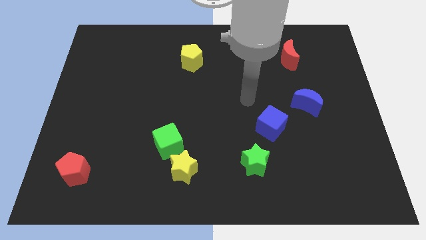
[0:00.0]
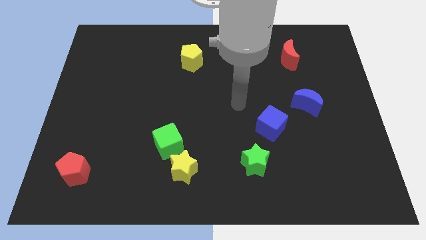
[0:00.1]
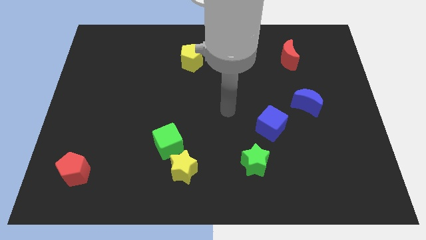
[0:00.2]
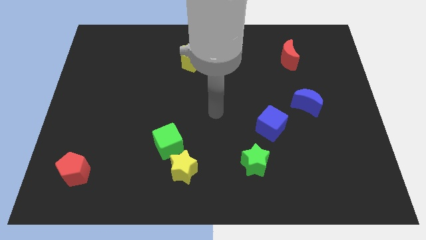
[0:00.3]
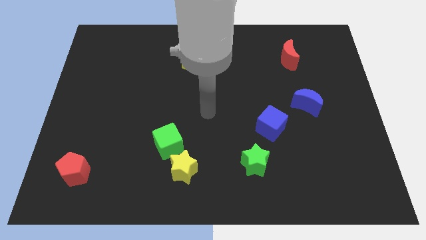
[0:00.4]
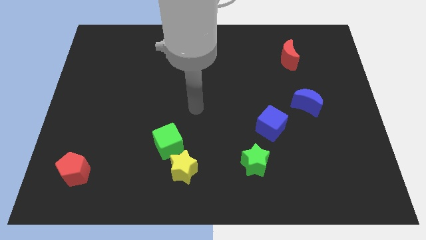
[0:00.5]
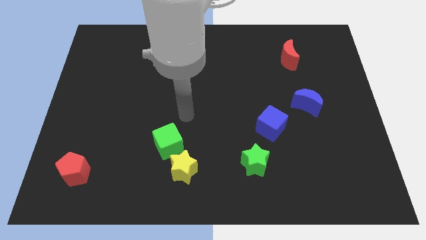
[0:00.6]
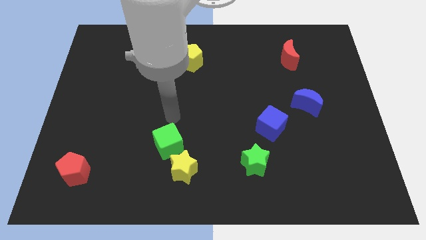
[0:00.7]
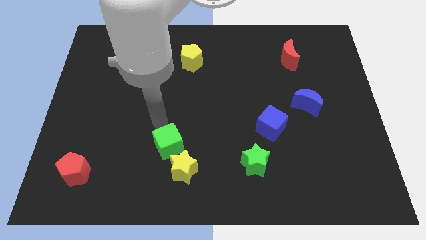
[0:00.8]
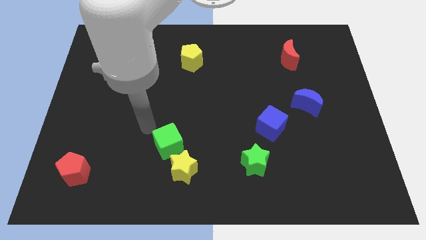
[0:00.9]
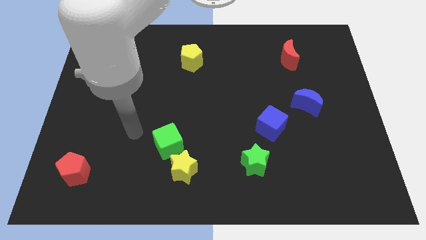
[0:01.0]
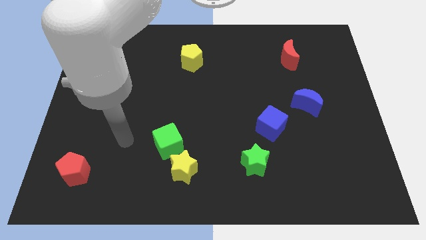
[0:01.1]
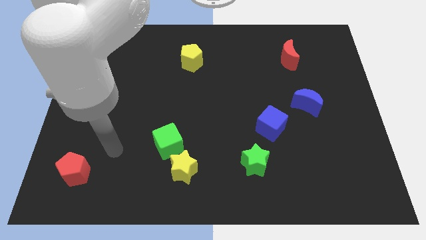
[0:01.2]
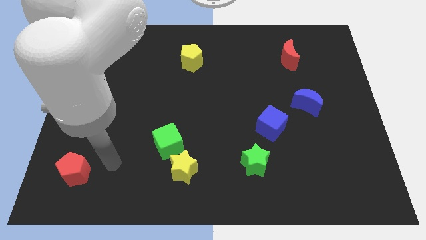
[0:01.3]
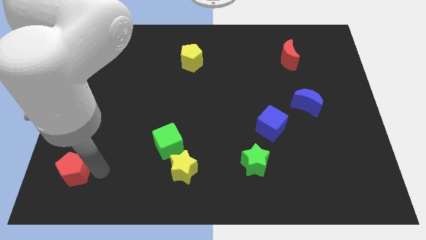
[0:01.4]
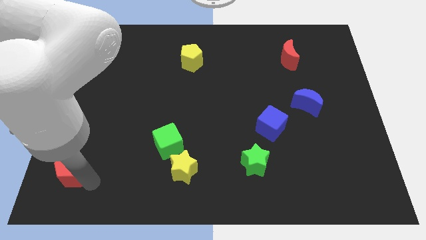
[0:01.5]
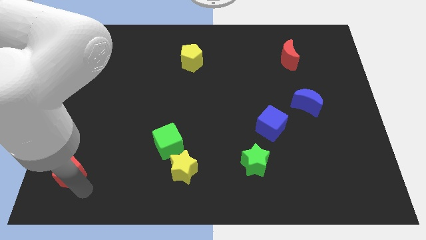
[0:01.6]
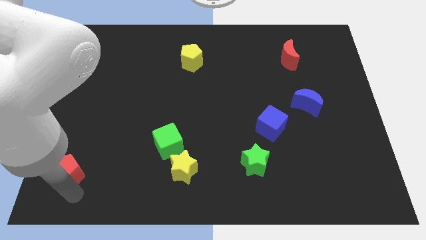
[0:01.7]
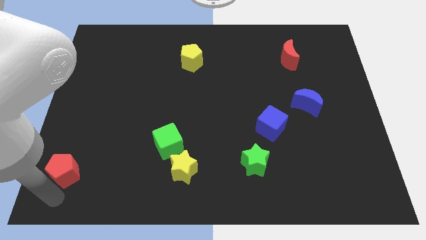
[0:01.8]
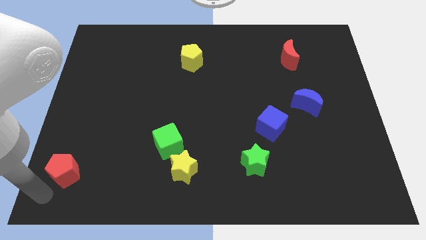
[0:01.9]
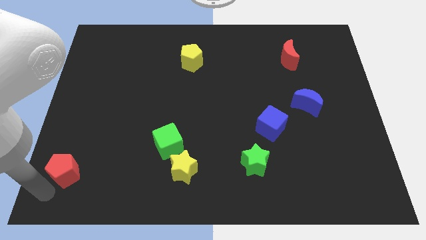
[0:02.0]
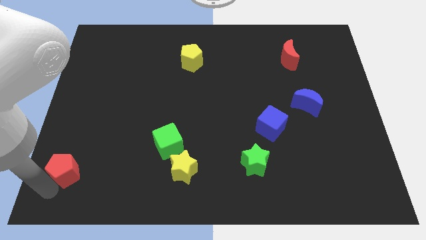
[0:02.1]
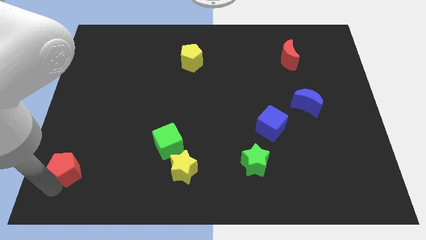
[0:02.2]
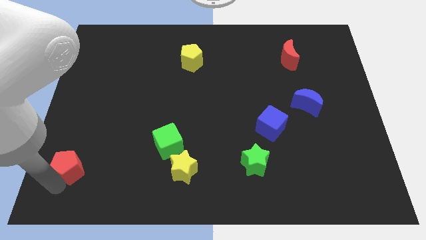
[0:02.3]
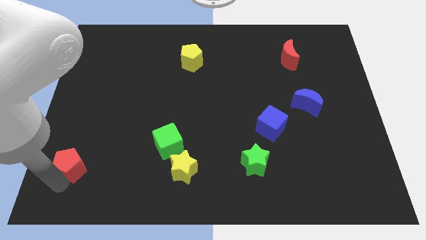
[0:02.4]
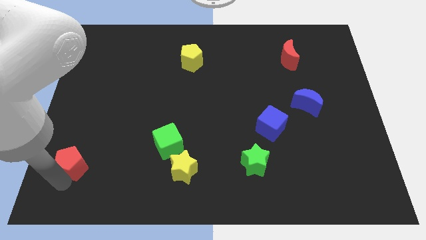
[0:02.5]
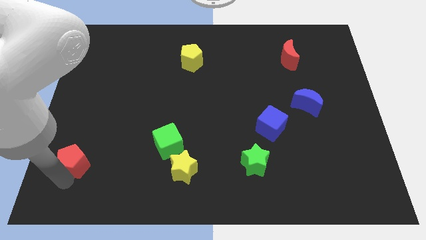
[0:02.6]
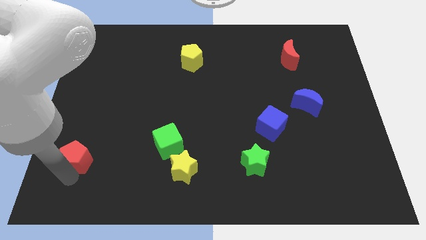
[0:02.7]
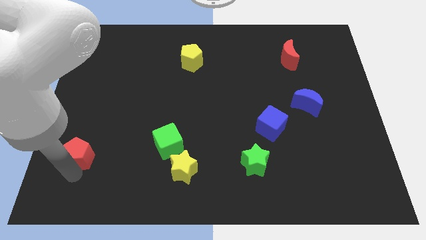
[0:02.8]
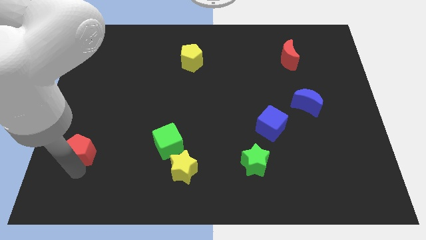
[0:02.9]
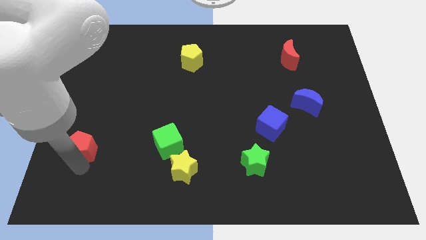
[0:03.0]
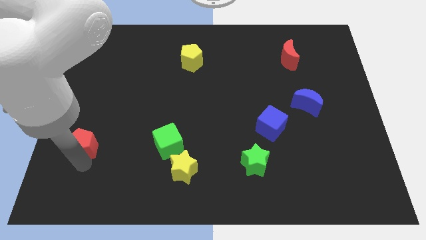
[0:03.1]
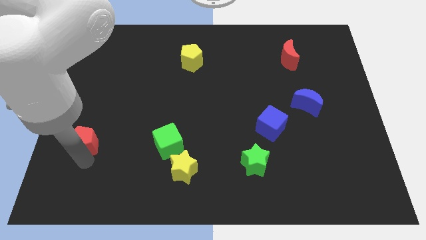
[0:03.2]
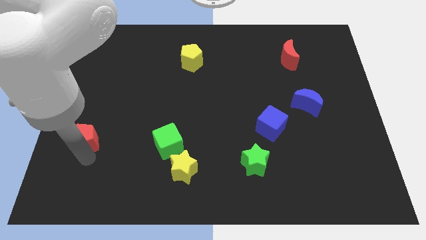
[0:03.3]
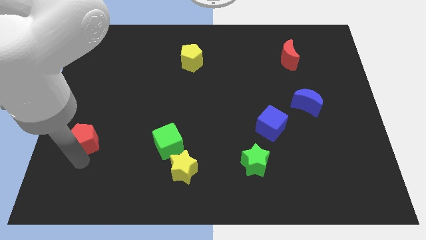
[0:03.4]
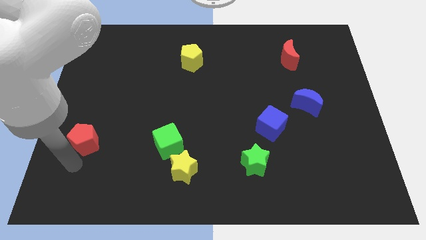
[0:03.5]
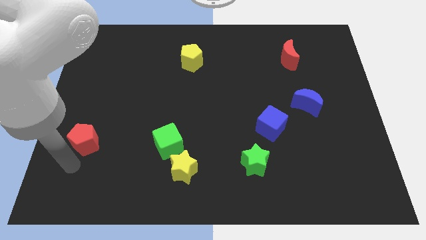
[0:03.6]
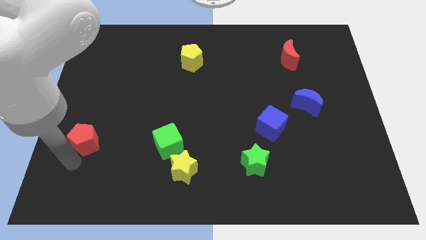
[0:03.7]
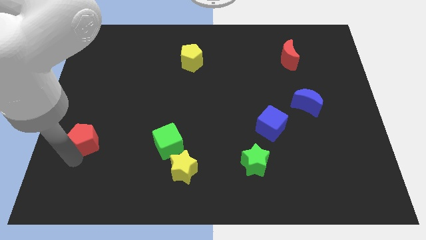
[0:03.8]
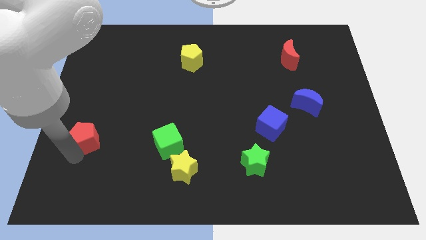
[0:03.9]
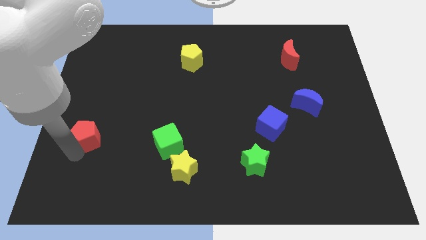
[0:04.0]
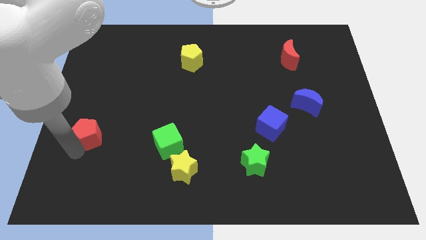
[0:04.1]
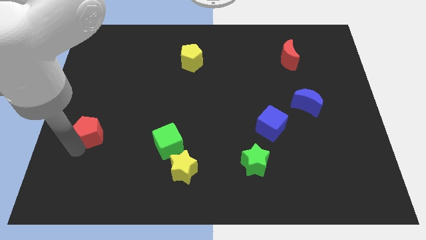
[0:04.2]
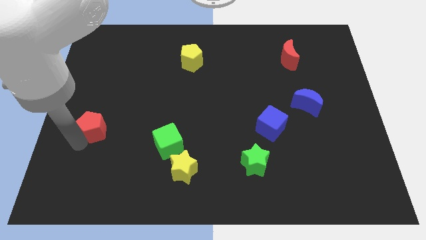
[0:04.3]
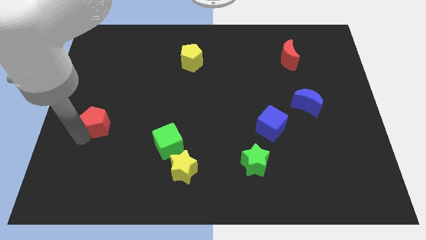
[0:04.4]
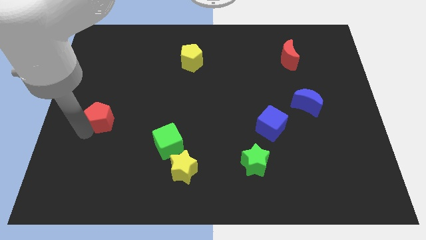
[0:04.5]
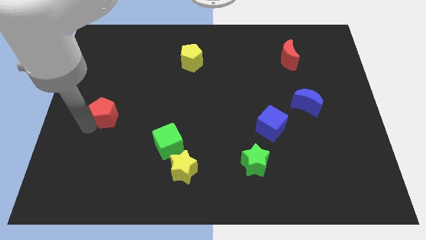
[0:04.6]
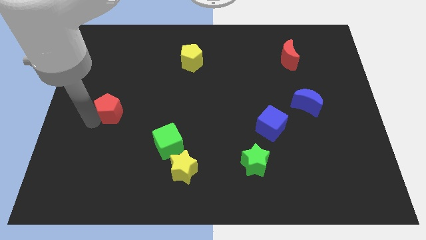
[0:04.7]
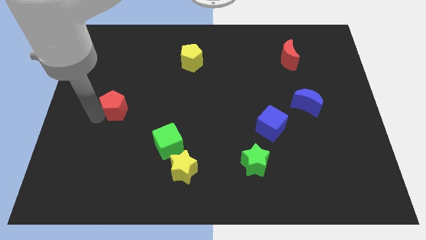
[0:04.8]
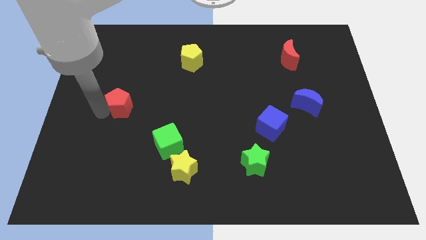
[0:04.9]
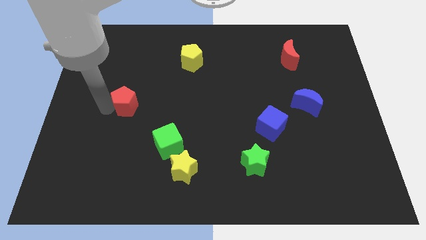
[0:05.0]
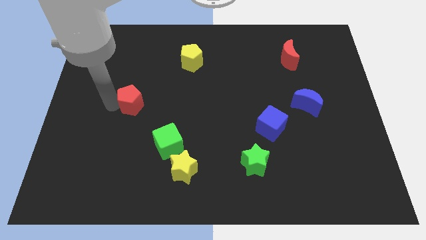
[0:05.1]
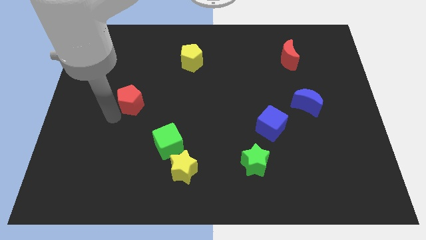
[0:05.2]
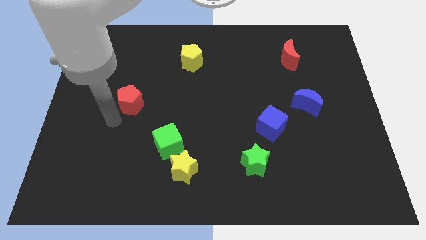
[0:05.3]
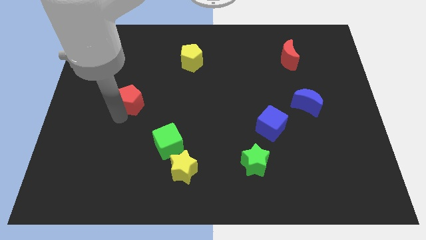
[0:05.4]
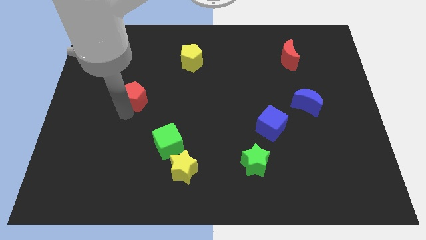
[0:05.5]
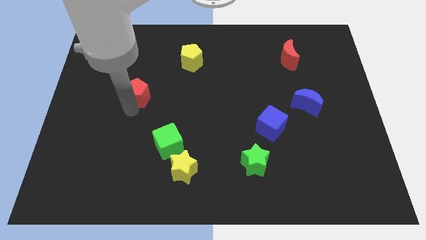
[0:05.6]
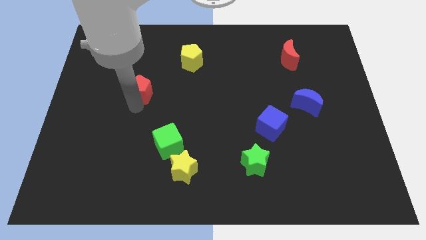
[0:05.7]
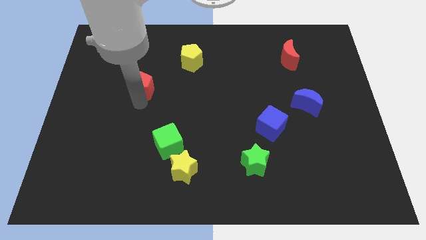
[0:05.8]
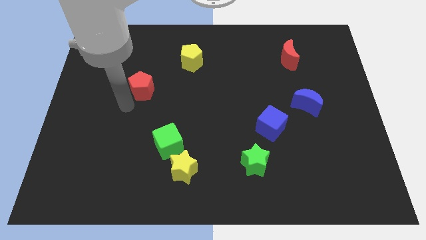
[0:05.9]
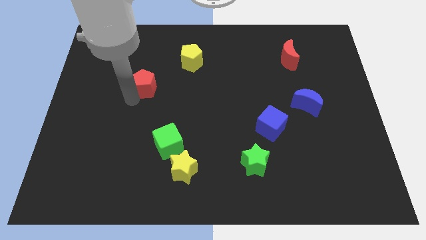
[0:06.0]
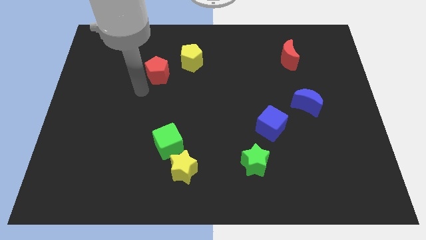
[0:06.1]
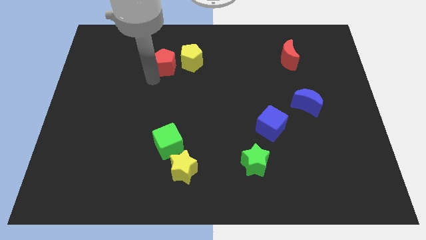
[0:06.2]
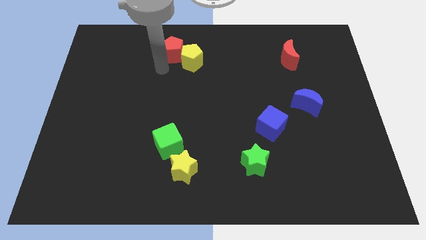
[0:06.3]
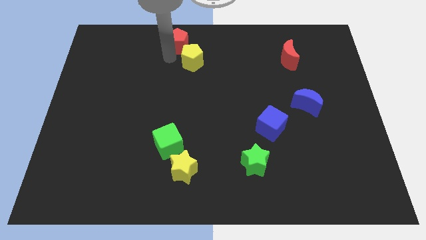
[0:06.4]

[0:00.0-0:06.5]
put the red pentagon to the top
